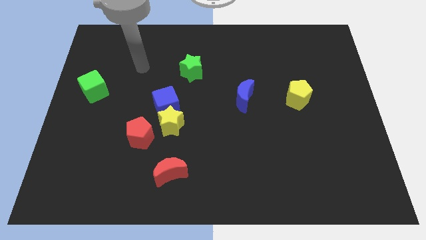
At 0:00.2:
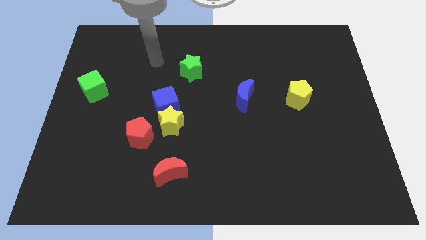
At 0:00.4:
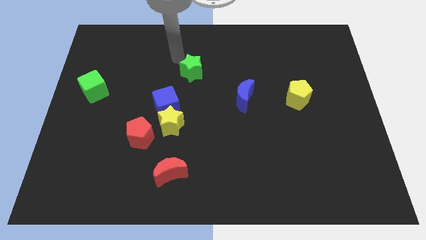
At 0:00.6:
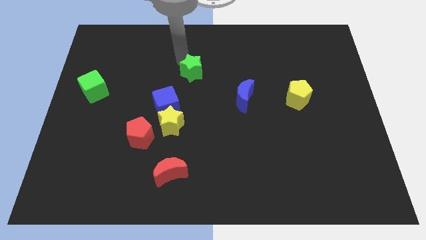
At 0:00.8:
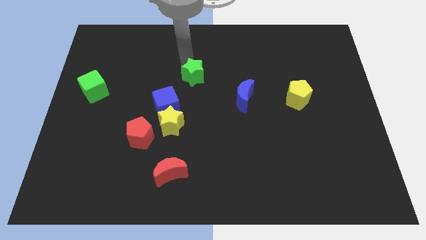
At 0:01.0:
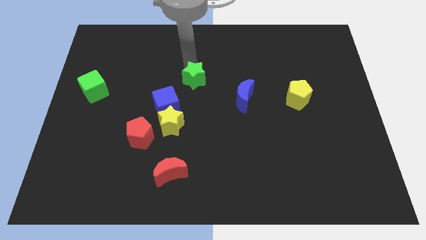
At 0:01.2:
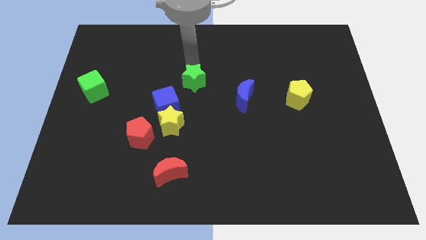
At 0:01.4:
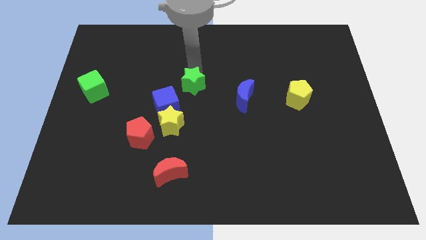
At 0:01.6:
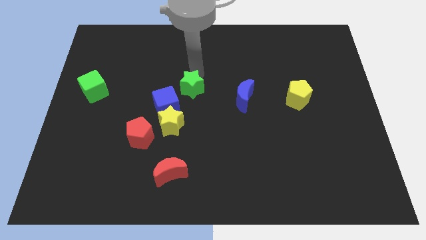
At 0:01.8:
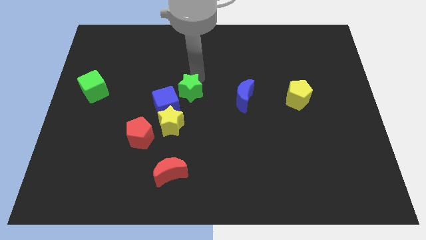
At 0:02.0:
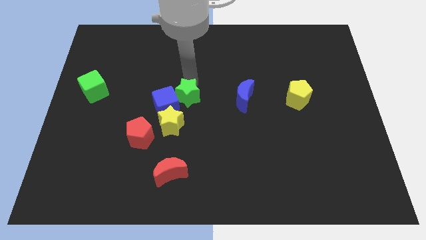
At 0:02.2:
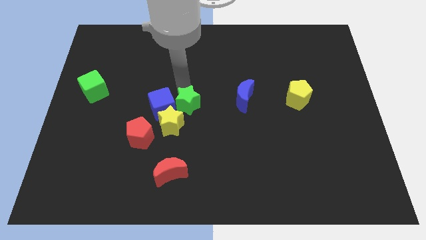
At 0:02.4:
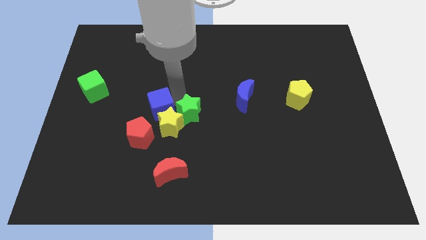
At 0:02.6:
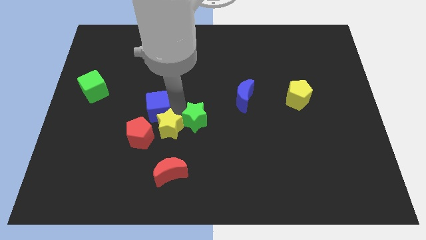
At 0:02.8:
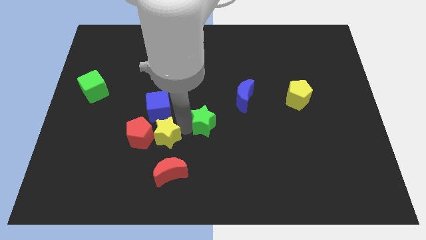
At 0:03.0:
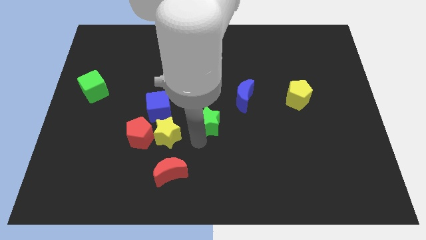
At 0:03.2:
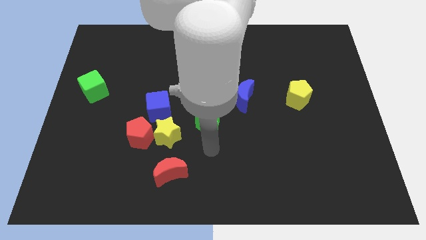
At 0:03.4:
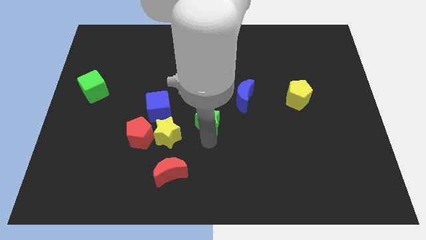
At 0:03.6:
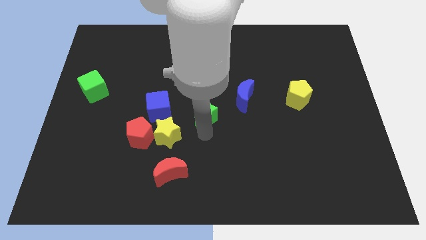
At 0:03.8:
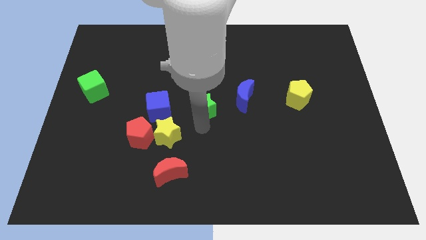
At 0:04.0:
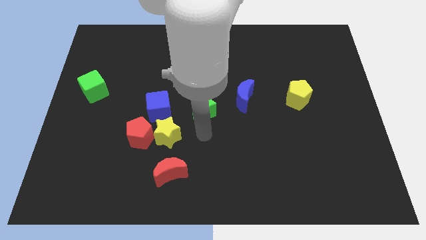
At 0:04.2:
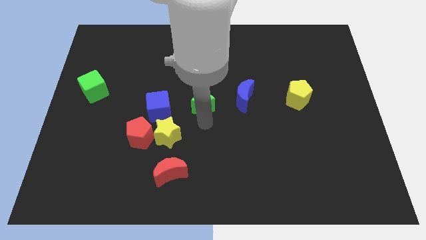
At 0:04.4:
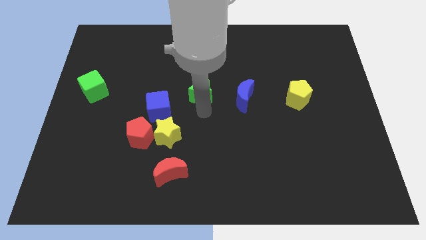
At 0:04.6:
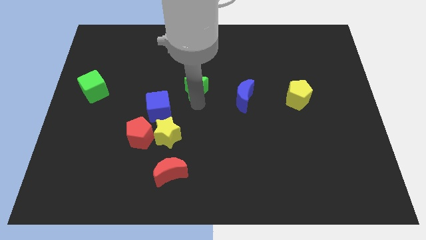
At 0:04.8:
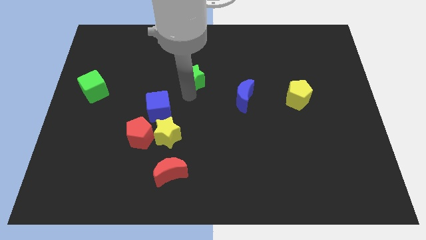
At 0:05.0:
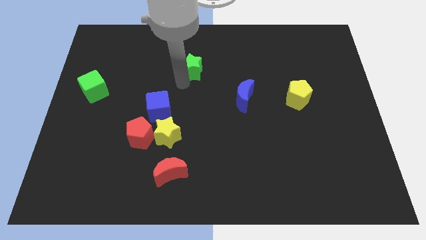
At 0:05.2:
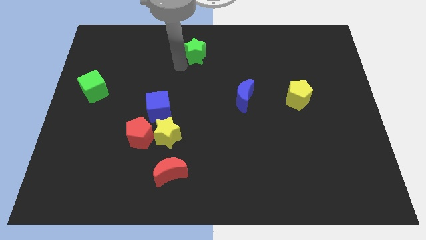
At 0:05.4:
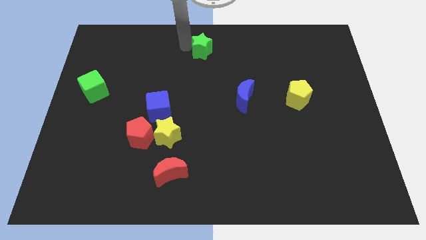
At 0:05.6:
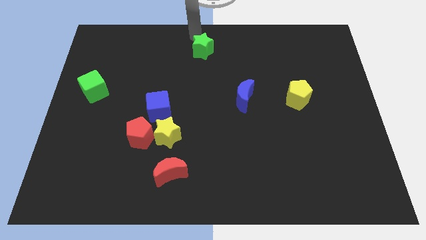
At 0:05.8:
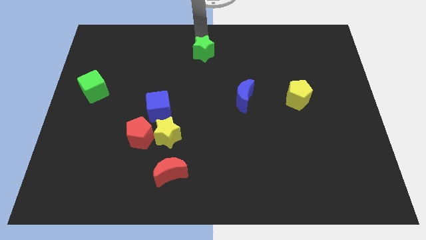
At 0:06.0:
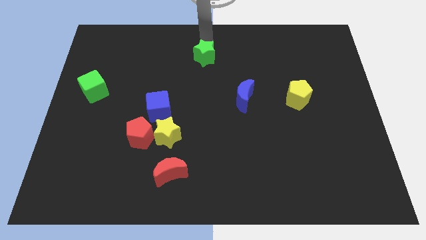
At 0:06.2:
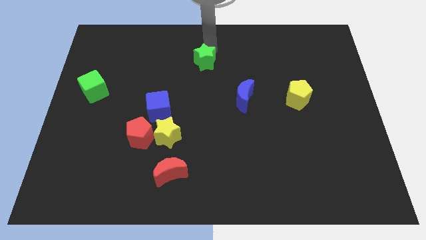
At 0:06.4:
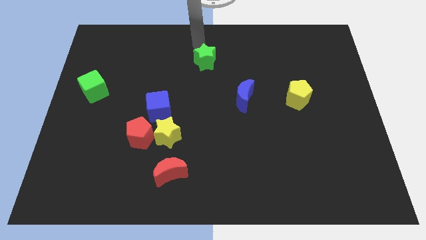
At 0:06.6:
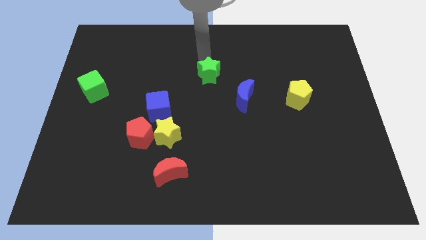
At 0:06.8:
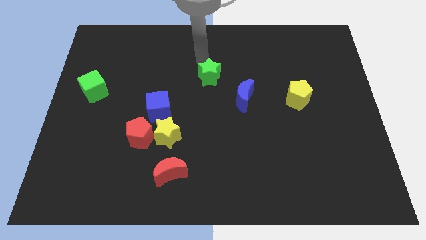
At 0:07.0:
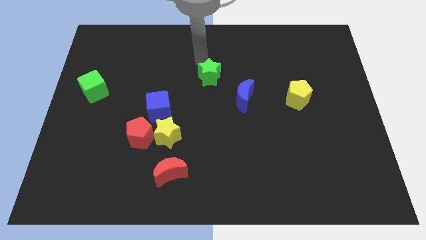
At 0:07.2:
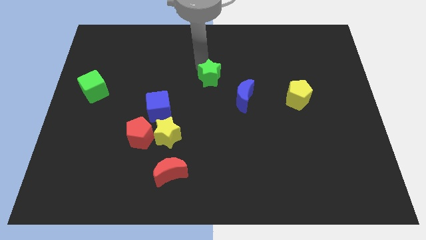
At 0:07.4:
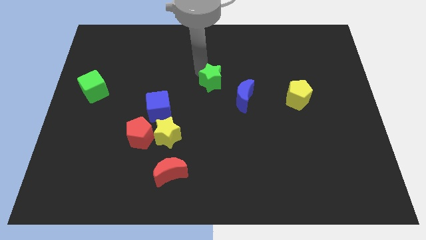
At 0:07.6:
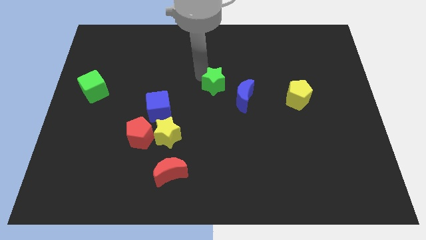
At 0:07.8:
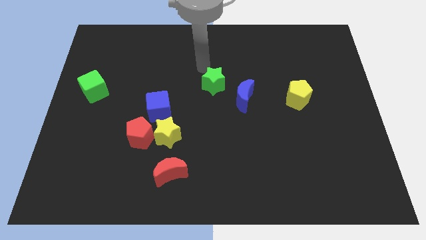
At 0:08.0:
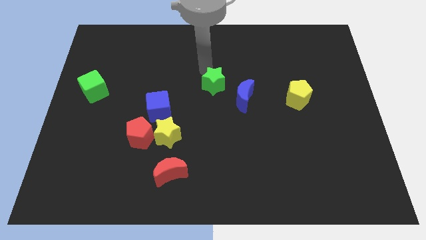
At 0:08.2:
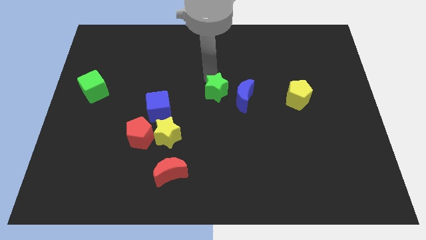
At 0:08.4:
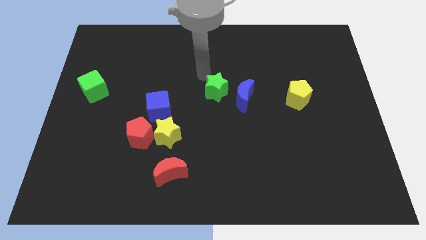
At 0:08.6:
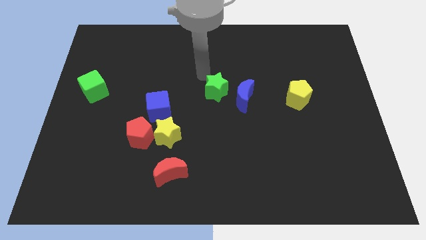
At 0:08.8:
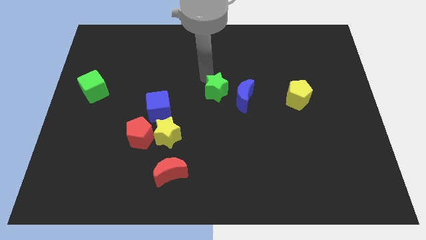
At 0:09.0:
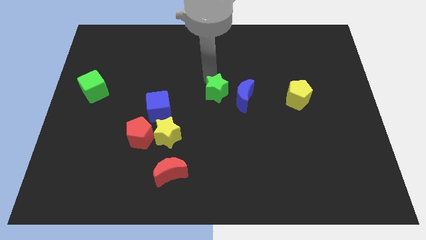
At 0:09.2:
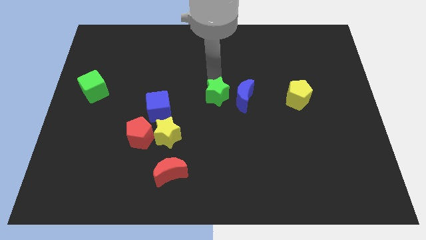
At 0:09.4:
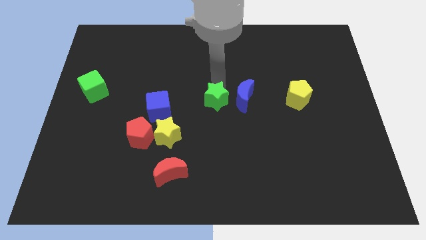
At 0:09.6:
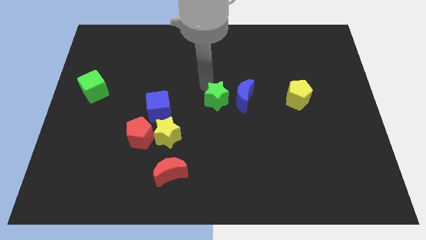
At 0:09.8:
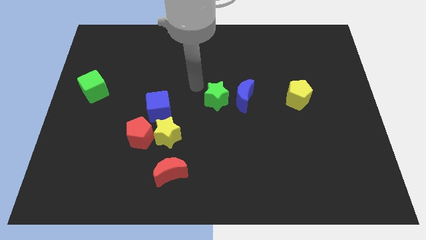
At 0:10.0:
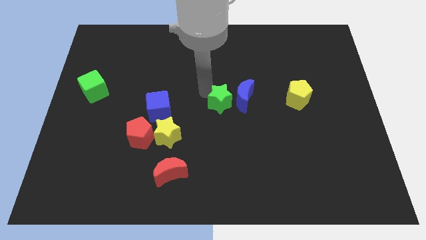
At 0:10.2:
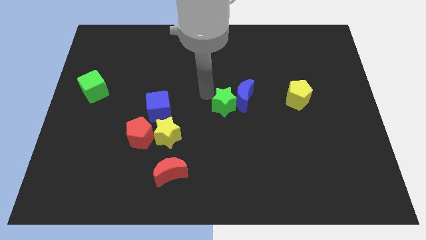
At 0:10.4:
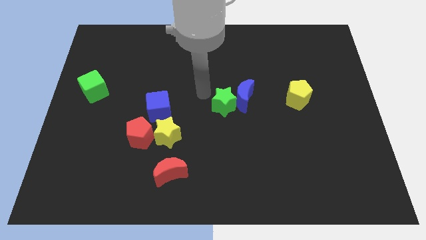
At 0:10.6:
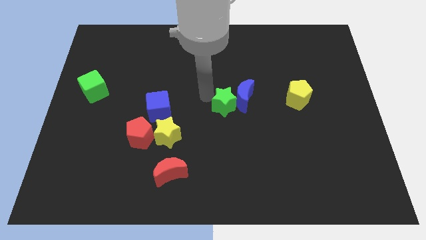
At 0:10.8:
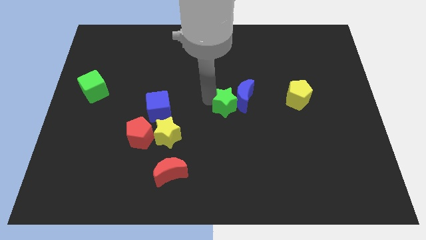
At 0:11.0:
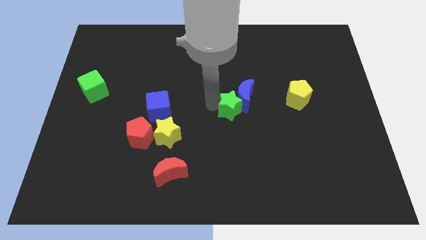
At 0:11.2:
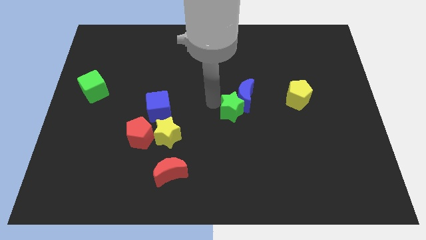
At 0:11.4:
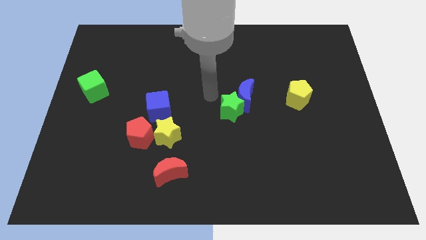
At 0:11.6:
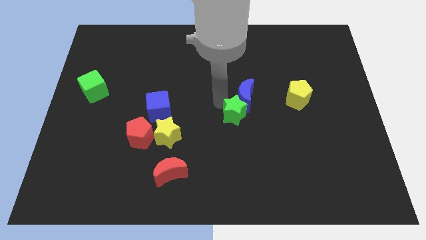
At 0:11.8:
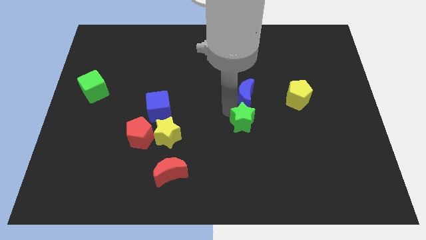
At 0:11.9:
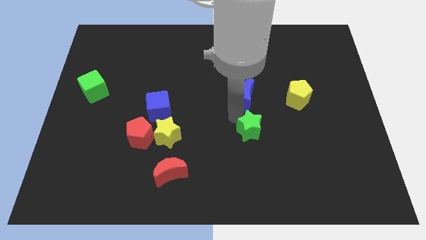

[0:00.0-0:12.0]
move the green star down and then right

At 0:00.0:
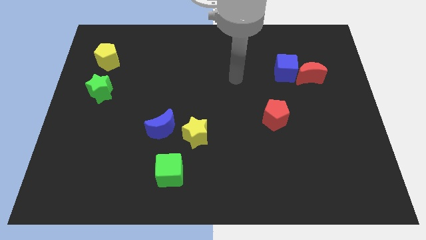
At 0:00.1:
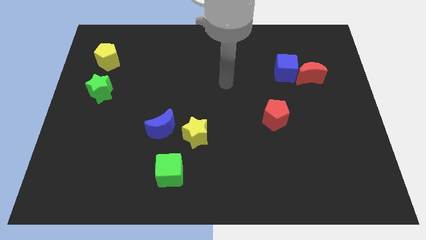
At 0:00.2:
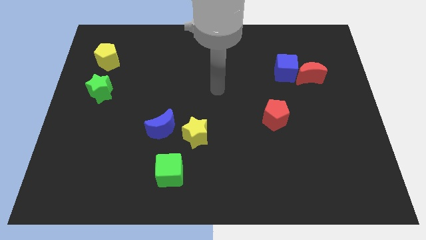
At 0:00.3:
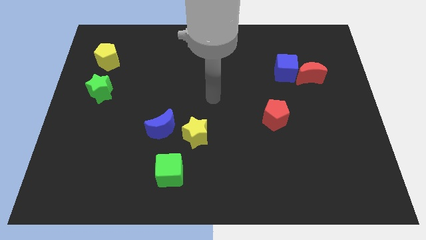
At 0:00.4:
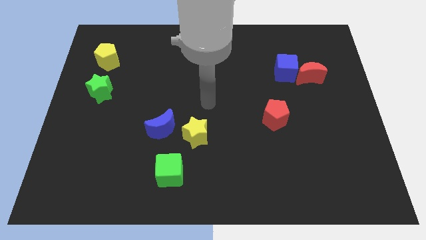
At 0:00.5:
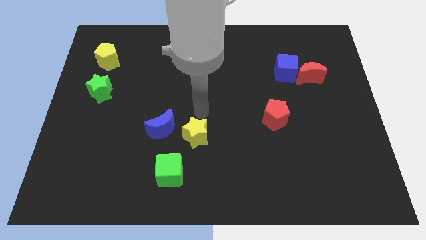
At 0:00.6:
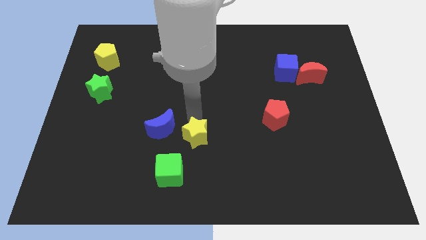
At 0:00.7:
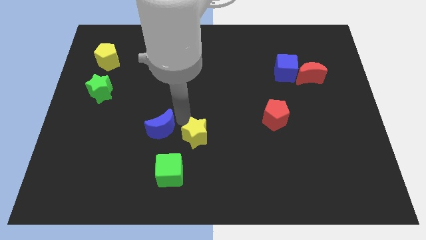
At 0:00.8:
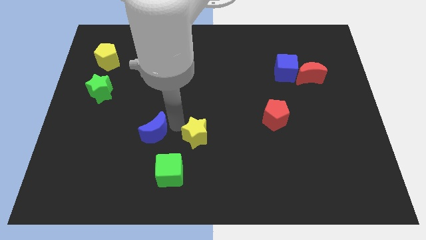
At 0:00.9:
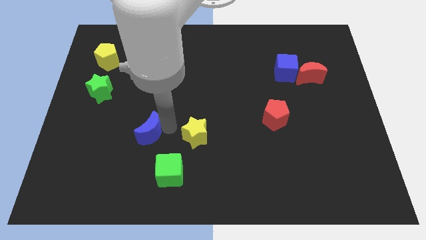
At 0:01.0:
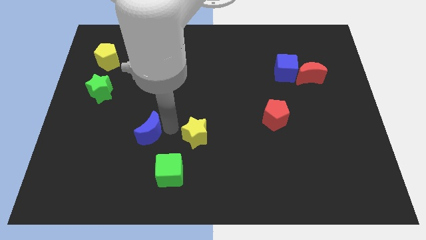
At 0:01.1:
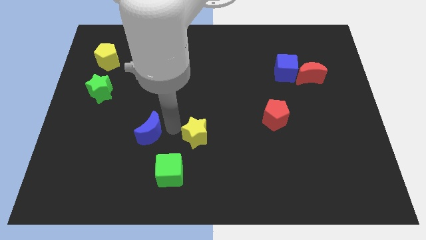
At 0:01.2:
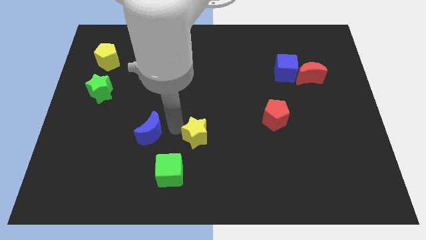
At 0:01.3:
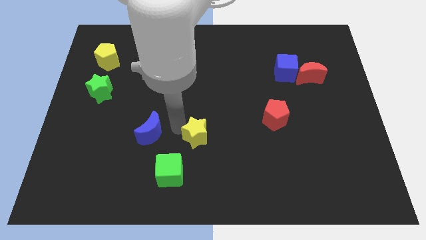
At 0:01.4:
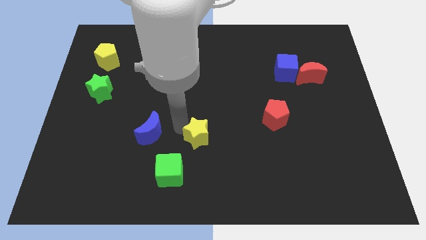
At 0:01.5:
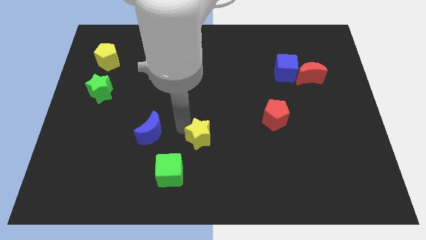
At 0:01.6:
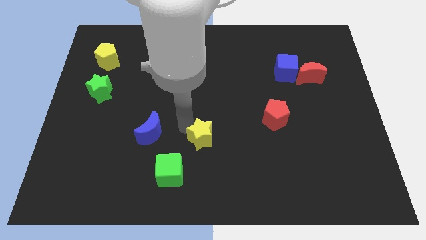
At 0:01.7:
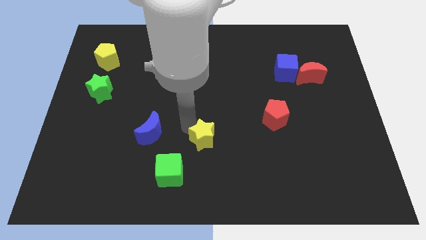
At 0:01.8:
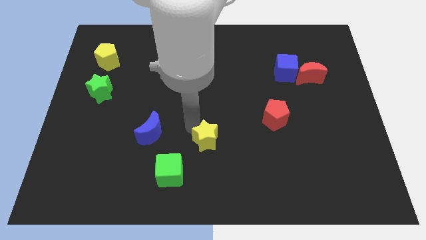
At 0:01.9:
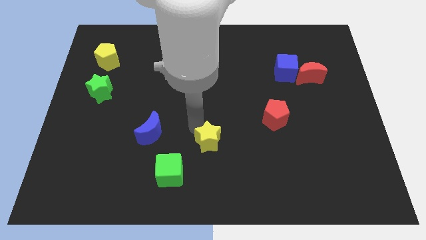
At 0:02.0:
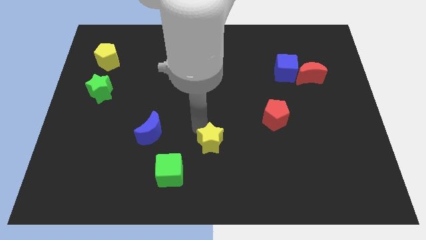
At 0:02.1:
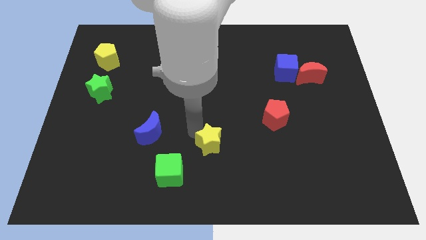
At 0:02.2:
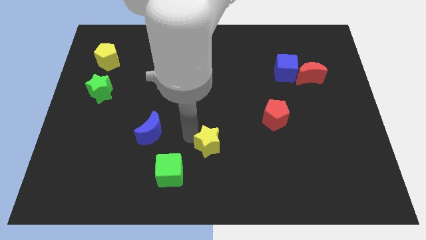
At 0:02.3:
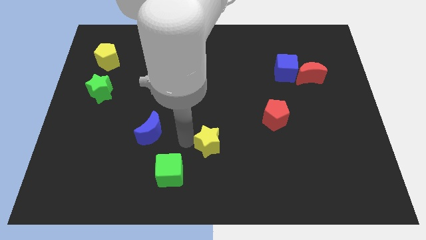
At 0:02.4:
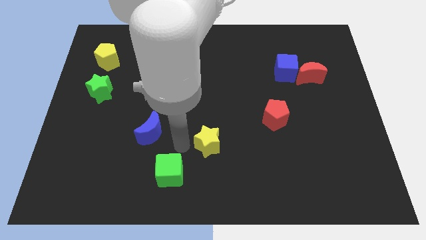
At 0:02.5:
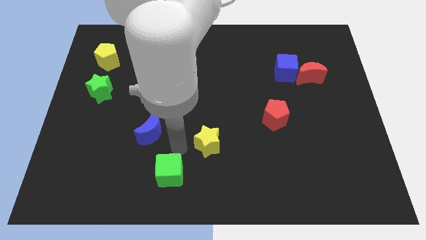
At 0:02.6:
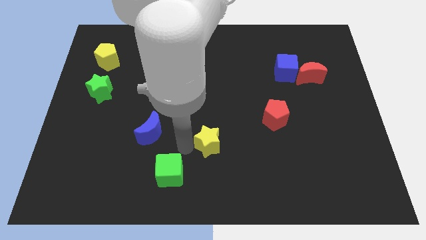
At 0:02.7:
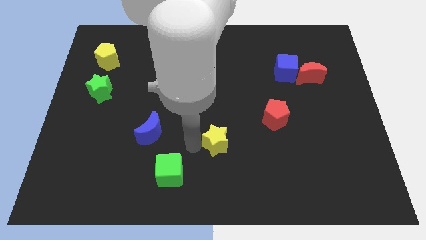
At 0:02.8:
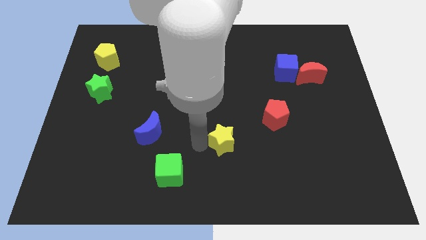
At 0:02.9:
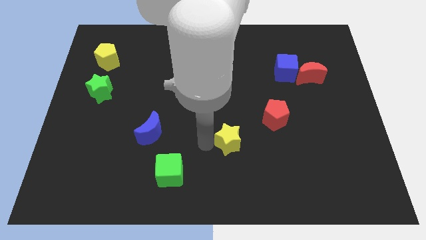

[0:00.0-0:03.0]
slightly push the yellow star right
